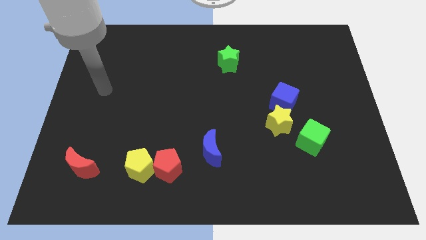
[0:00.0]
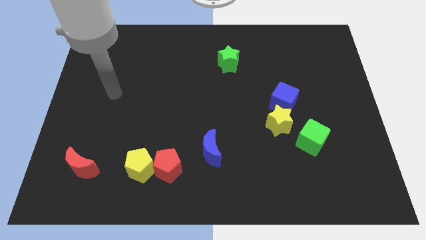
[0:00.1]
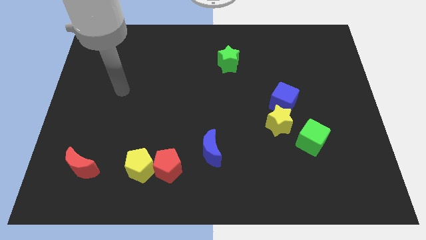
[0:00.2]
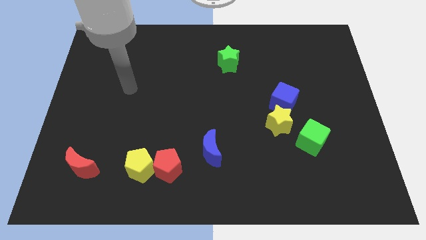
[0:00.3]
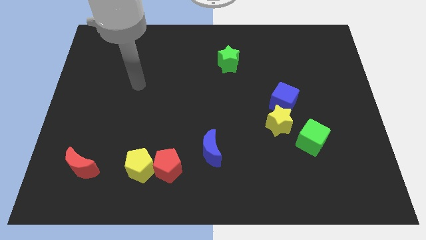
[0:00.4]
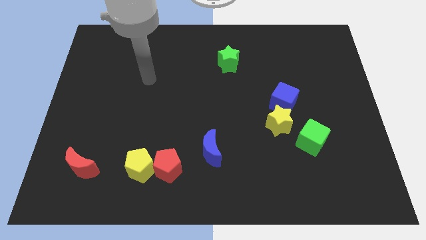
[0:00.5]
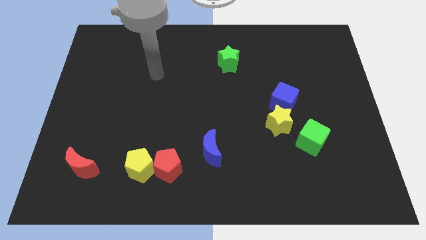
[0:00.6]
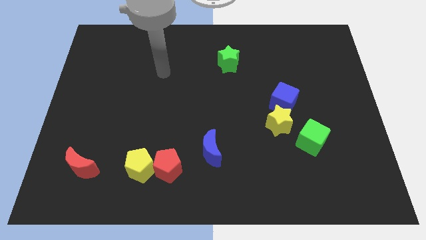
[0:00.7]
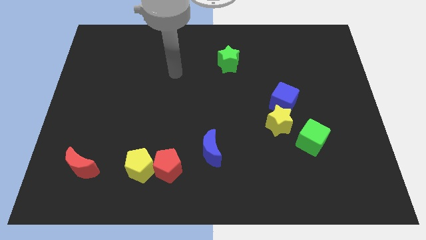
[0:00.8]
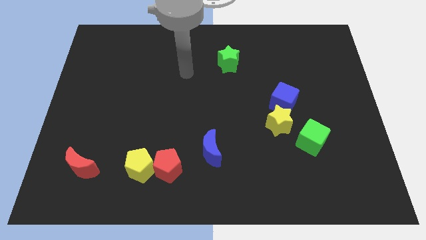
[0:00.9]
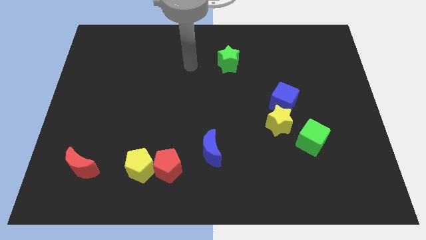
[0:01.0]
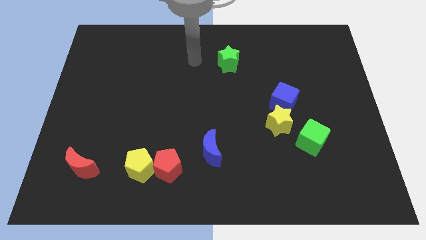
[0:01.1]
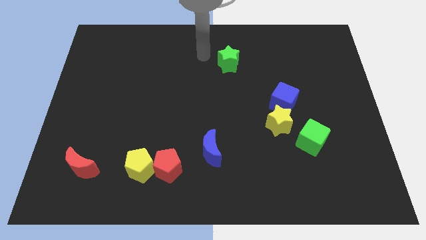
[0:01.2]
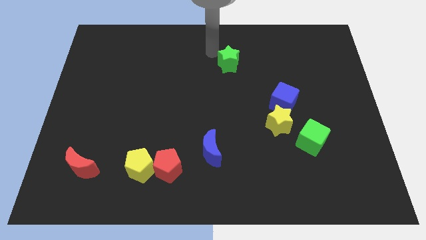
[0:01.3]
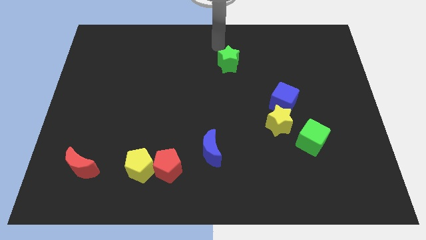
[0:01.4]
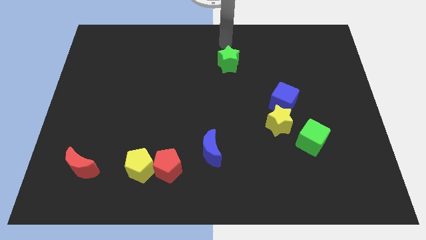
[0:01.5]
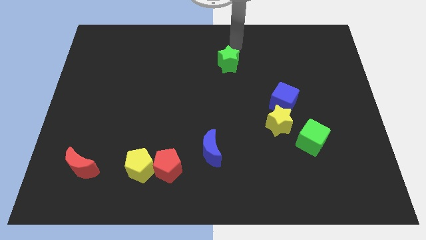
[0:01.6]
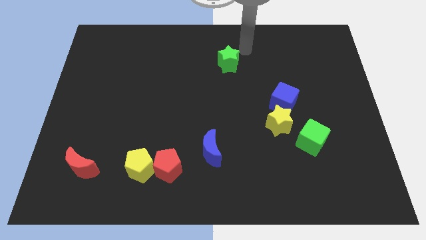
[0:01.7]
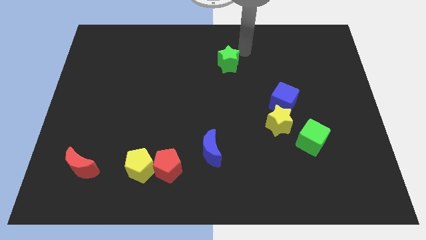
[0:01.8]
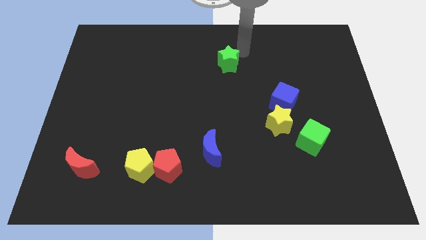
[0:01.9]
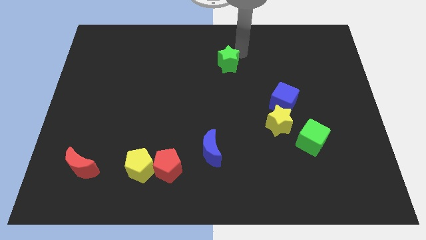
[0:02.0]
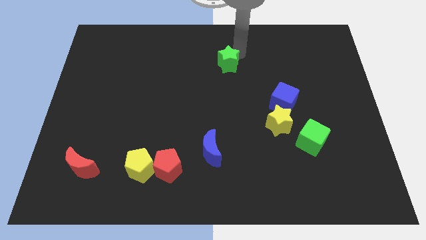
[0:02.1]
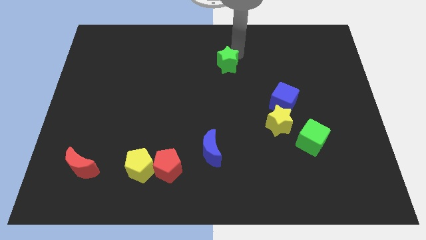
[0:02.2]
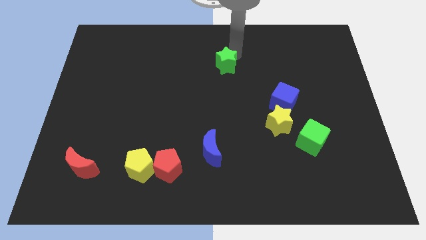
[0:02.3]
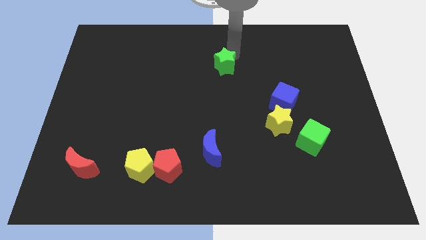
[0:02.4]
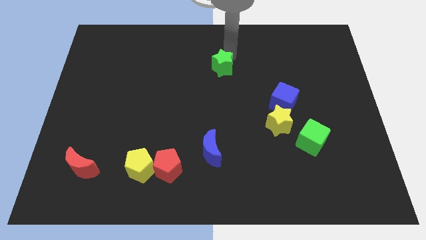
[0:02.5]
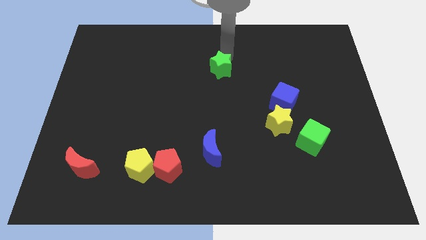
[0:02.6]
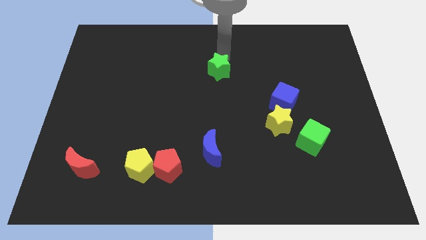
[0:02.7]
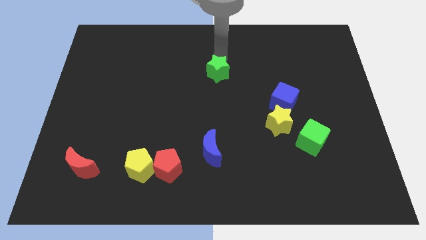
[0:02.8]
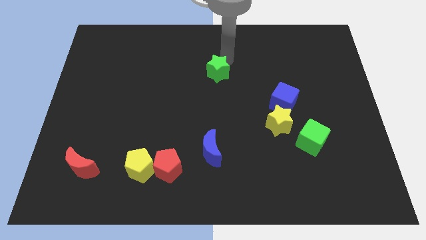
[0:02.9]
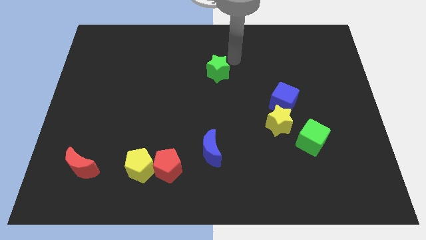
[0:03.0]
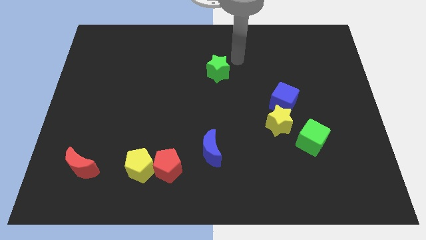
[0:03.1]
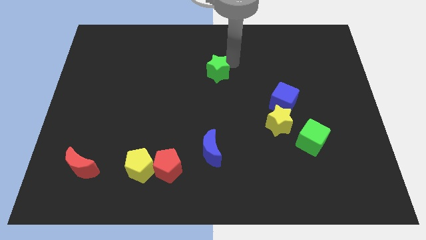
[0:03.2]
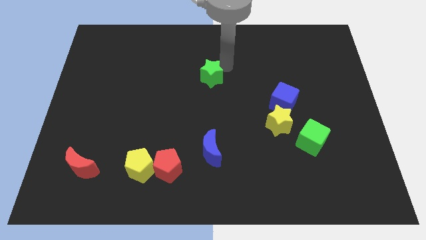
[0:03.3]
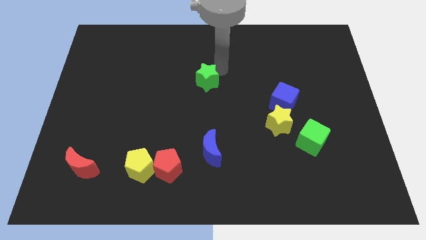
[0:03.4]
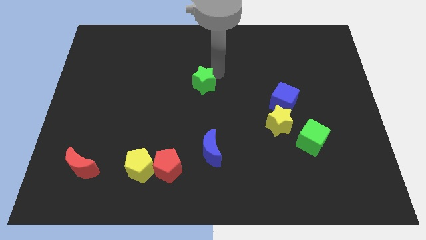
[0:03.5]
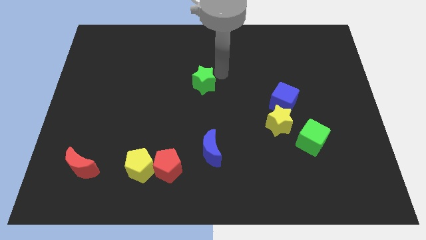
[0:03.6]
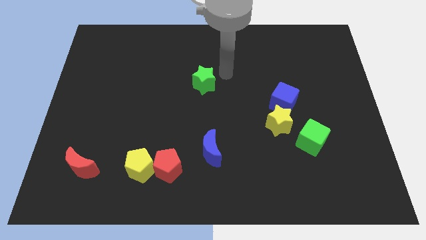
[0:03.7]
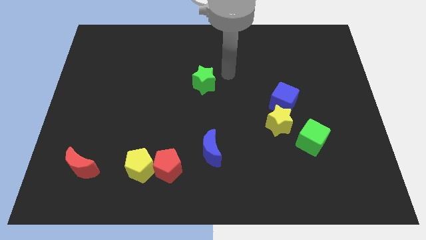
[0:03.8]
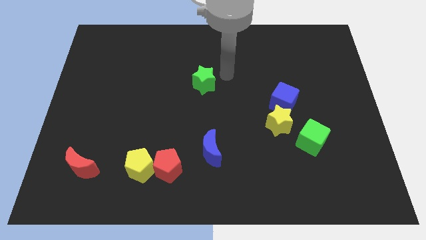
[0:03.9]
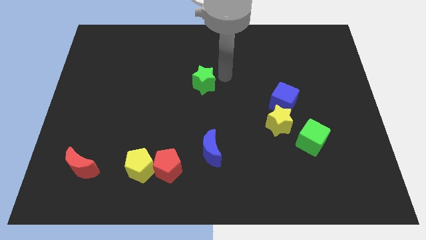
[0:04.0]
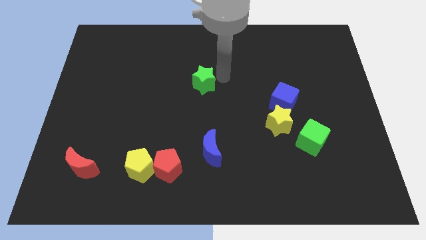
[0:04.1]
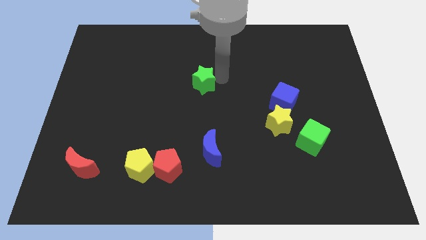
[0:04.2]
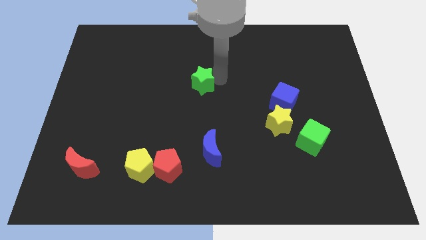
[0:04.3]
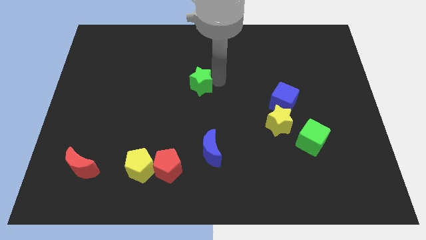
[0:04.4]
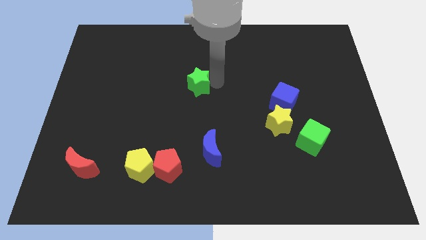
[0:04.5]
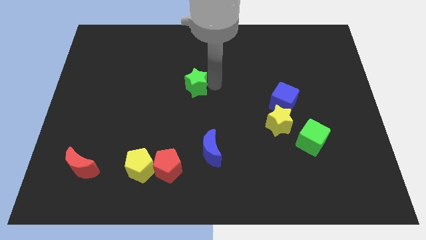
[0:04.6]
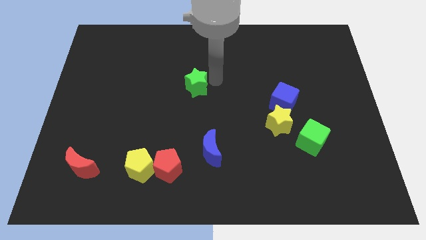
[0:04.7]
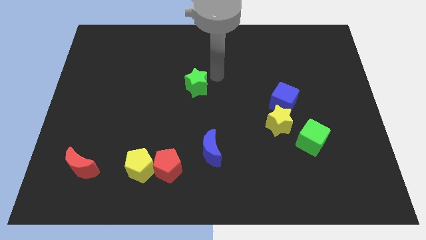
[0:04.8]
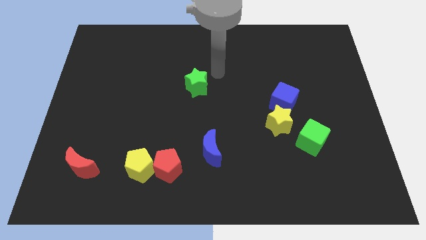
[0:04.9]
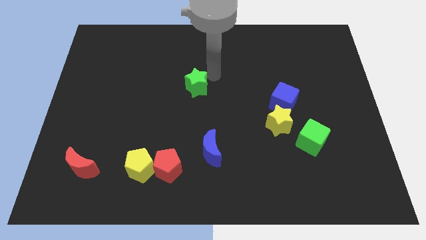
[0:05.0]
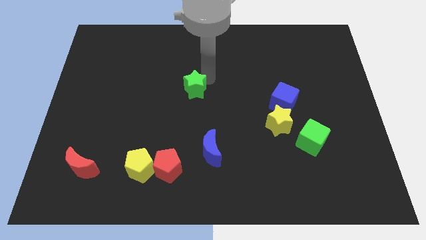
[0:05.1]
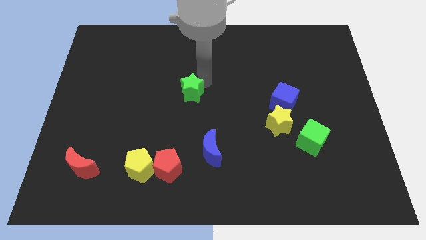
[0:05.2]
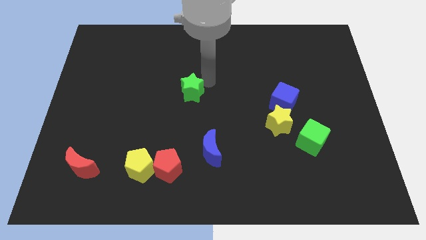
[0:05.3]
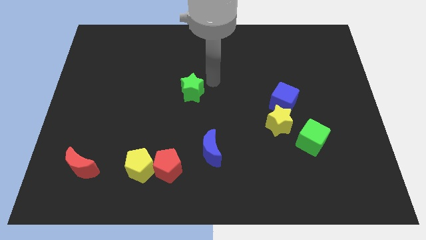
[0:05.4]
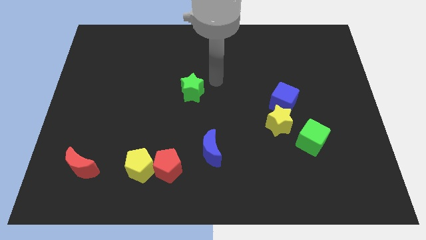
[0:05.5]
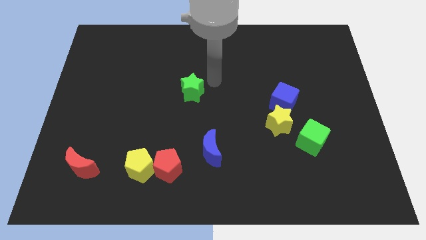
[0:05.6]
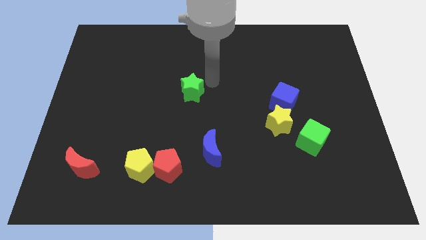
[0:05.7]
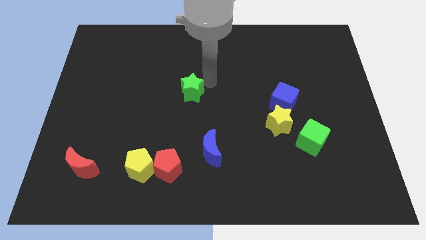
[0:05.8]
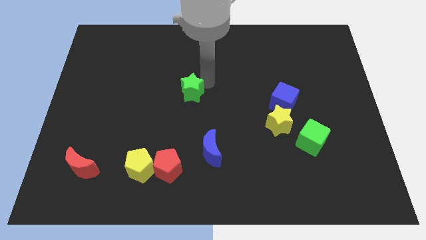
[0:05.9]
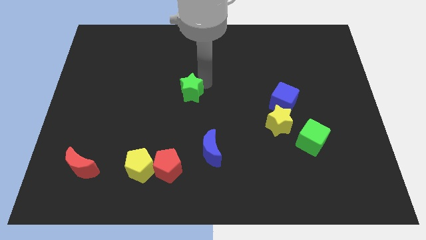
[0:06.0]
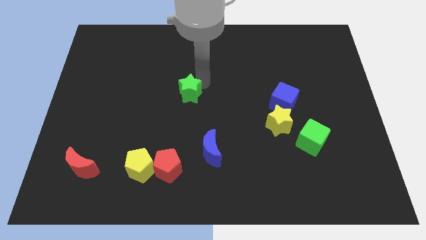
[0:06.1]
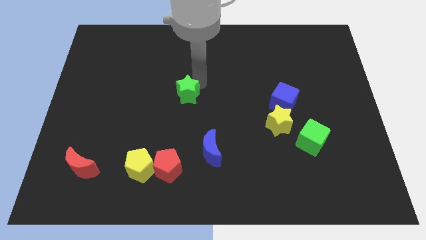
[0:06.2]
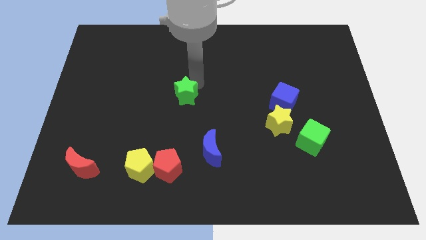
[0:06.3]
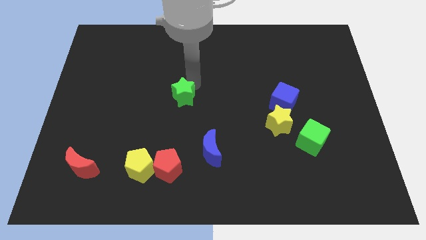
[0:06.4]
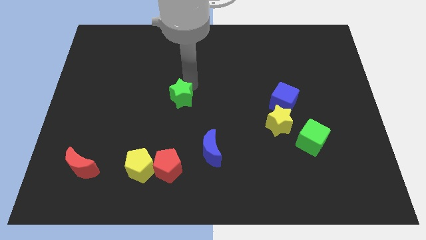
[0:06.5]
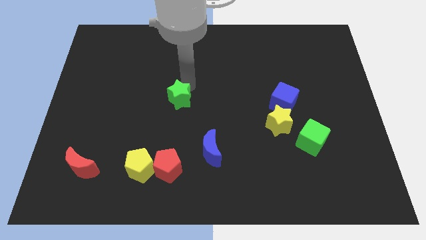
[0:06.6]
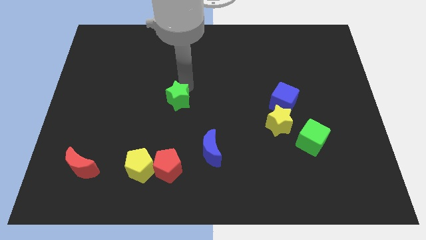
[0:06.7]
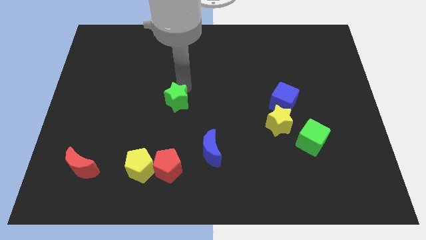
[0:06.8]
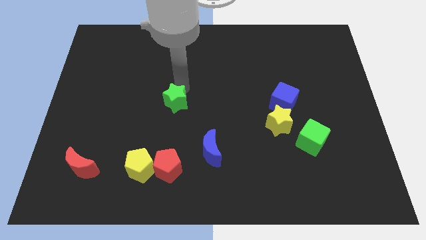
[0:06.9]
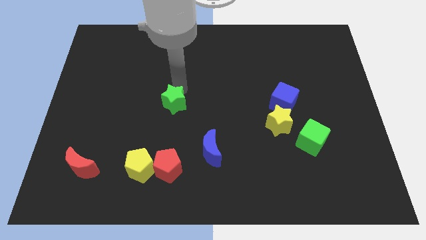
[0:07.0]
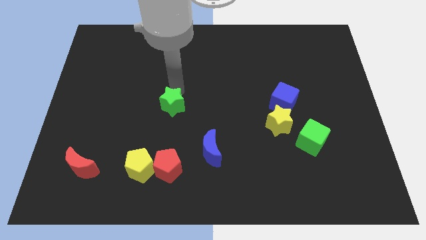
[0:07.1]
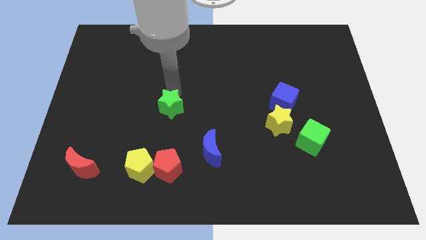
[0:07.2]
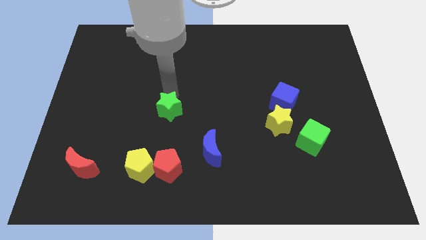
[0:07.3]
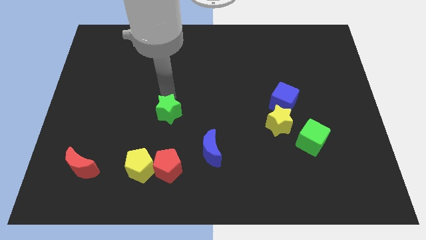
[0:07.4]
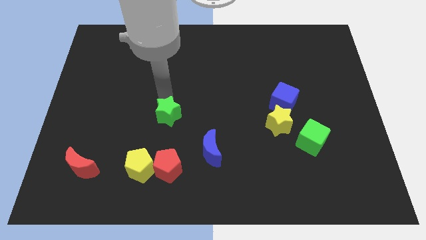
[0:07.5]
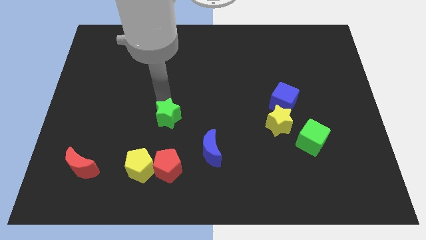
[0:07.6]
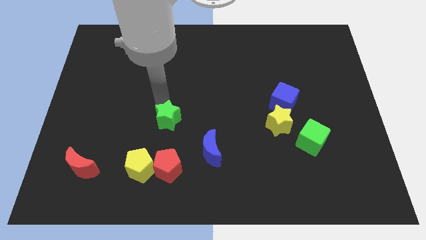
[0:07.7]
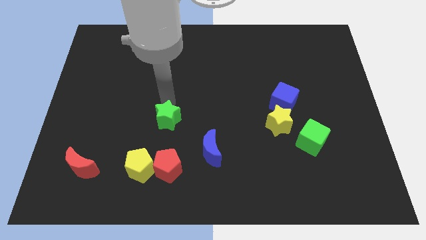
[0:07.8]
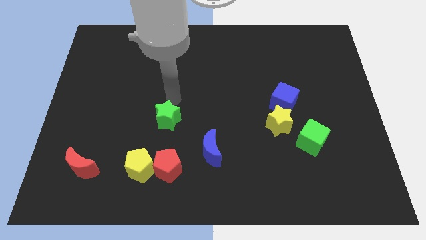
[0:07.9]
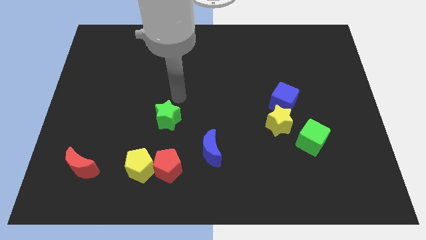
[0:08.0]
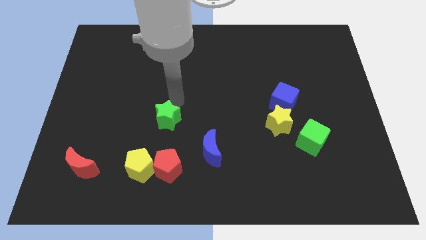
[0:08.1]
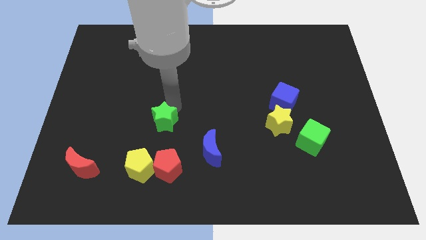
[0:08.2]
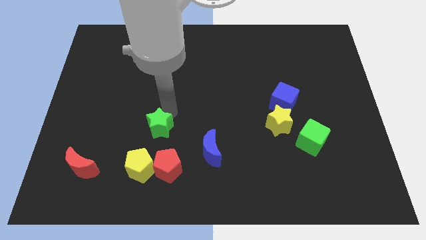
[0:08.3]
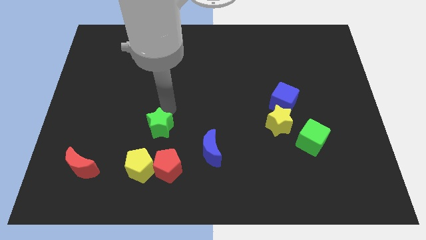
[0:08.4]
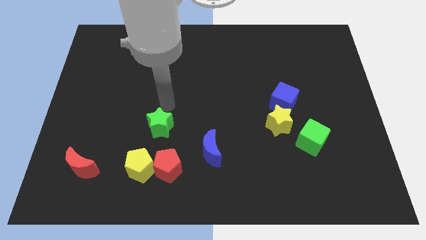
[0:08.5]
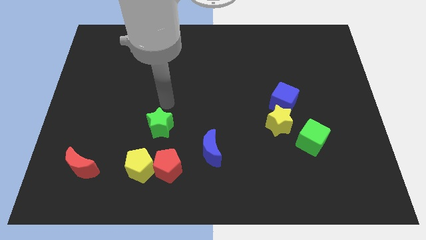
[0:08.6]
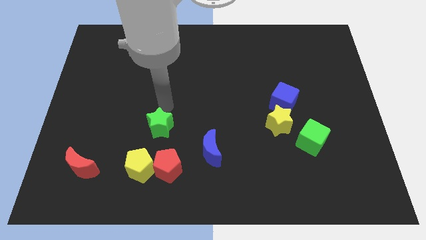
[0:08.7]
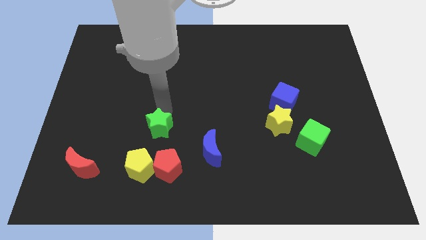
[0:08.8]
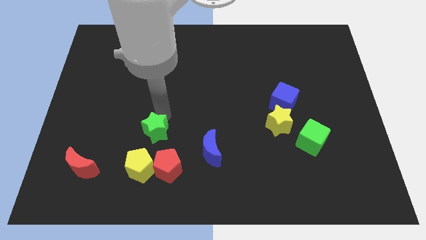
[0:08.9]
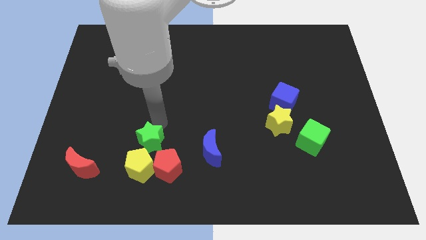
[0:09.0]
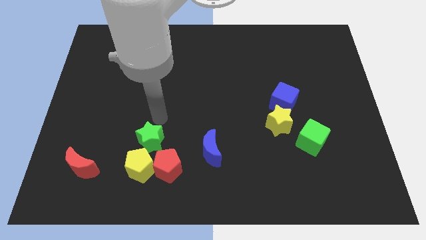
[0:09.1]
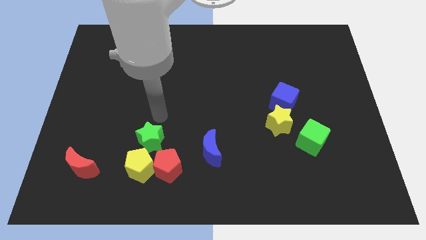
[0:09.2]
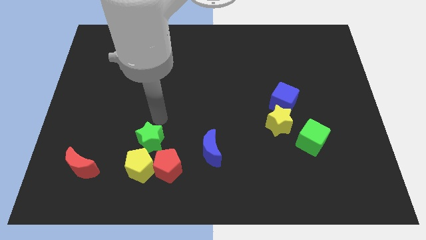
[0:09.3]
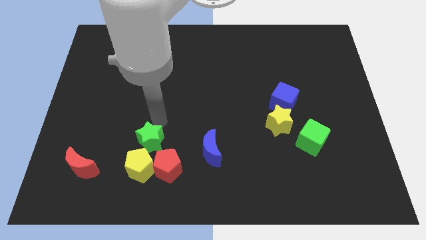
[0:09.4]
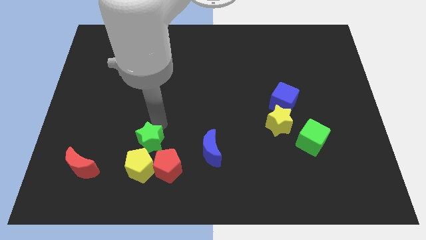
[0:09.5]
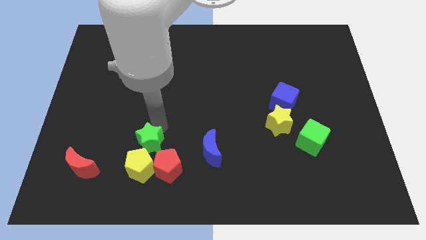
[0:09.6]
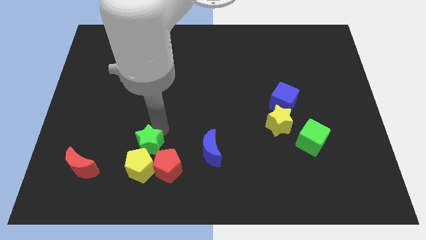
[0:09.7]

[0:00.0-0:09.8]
push the green star close to the yellow pentagon
